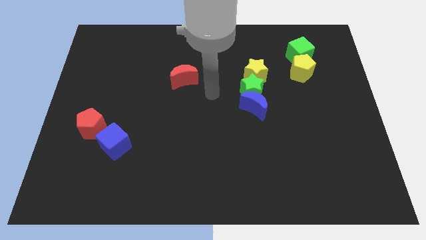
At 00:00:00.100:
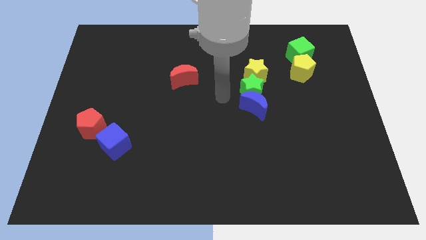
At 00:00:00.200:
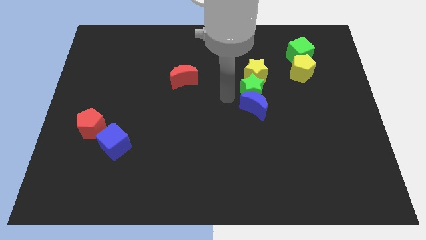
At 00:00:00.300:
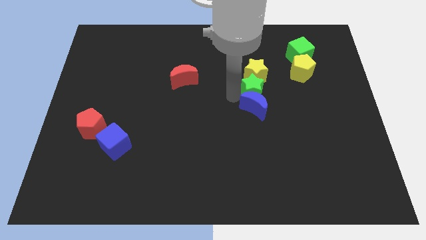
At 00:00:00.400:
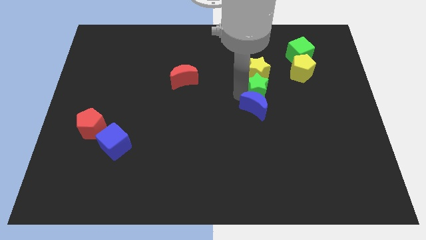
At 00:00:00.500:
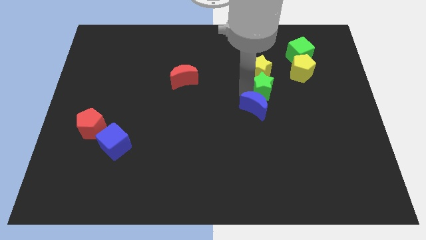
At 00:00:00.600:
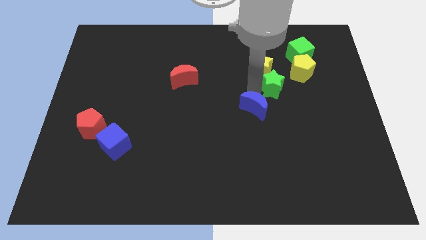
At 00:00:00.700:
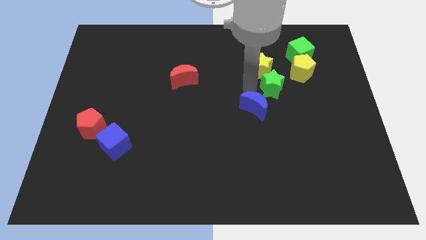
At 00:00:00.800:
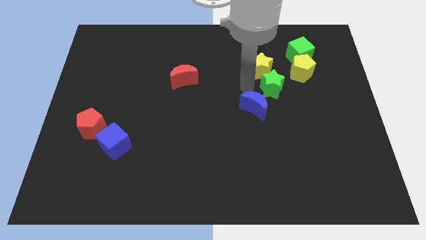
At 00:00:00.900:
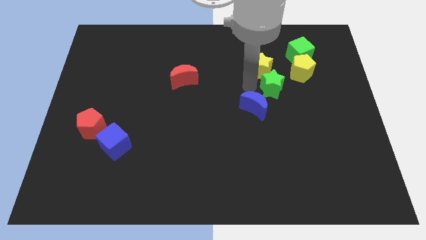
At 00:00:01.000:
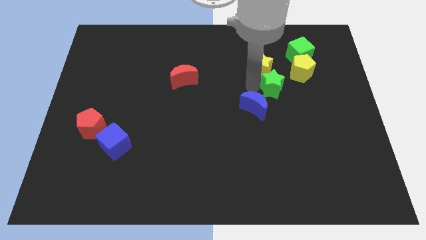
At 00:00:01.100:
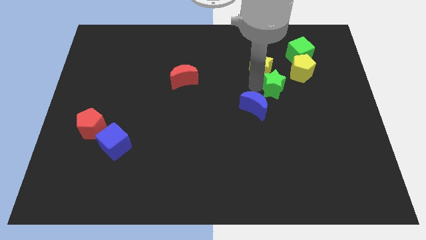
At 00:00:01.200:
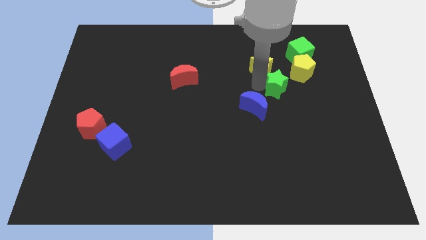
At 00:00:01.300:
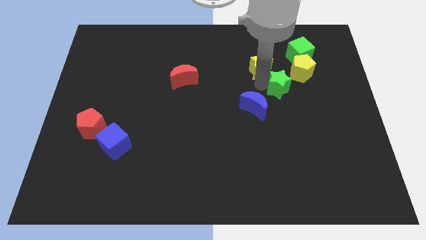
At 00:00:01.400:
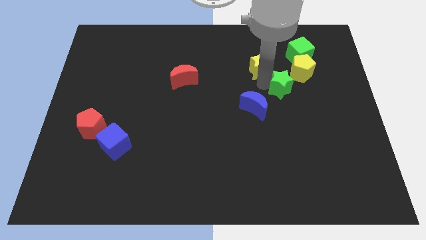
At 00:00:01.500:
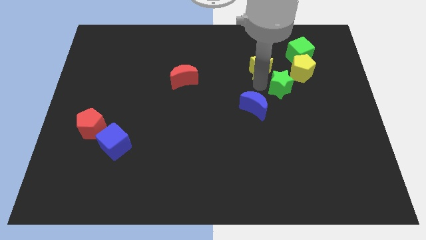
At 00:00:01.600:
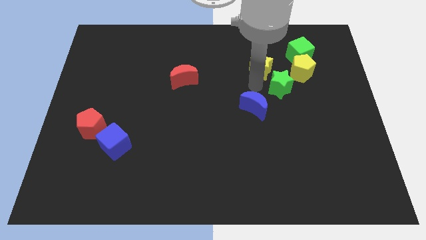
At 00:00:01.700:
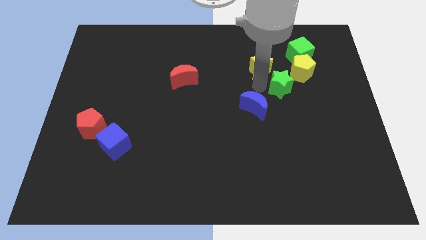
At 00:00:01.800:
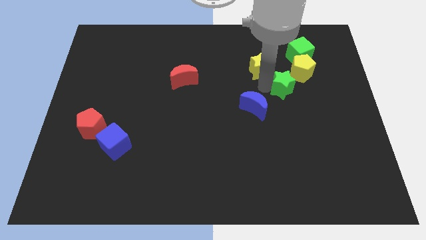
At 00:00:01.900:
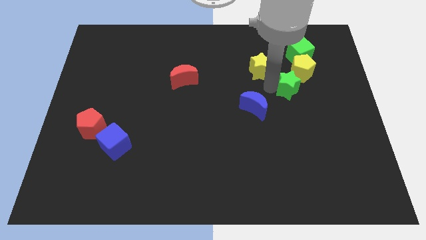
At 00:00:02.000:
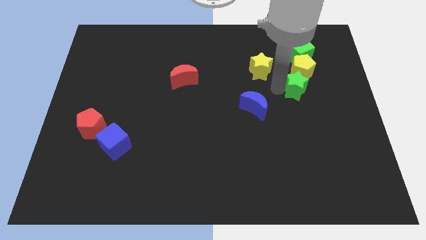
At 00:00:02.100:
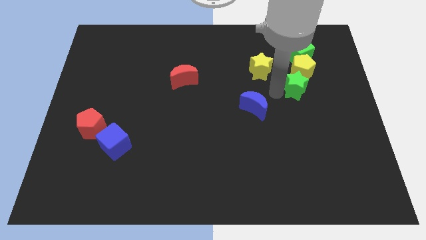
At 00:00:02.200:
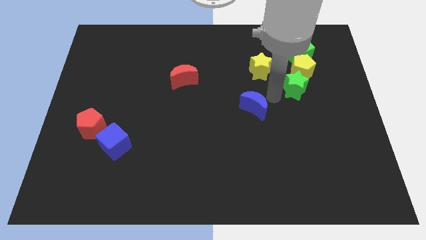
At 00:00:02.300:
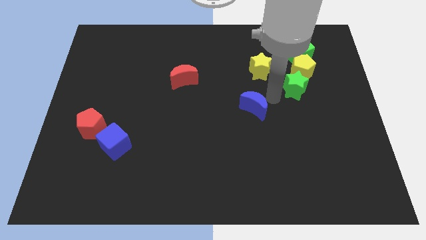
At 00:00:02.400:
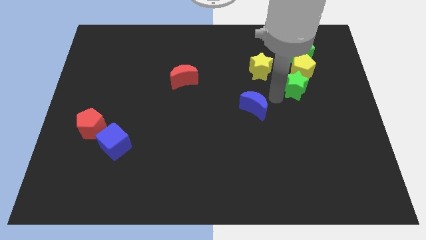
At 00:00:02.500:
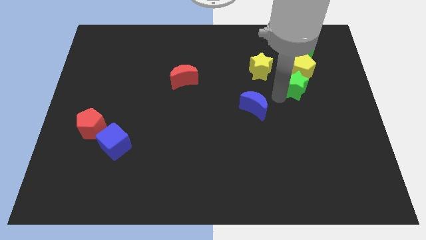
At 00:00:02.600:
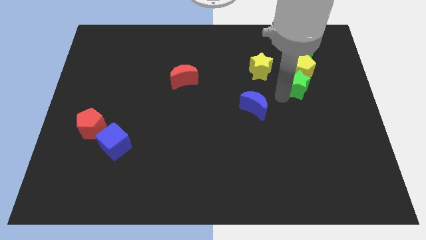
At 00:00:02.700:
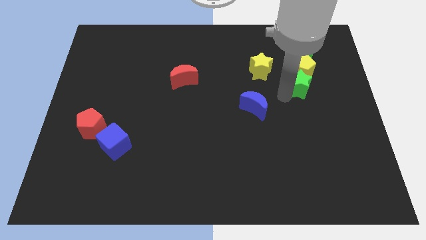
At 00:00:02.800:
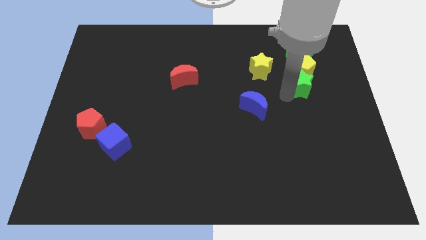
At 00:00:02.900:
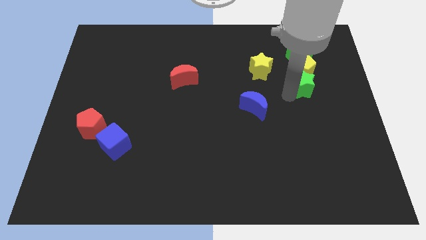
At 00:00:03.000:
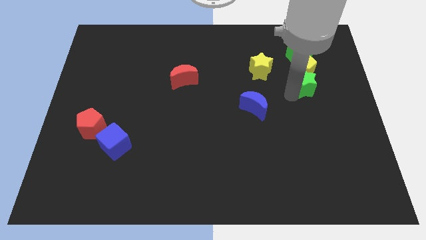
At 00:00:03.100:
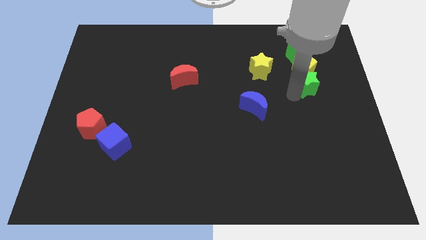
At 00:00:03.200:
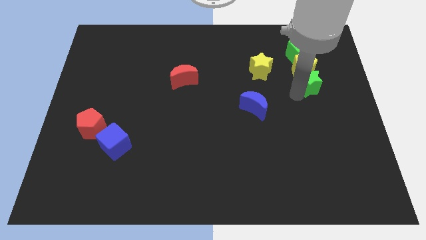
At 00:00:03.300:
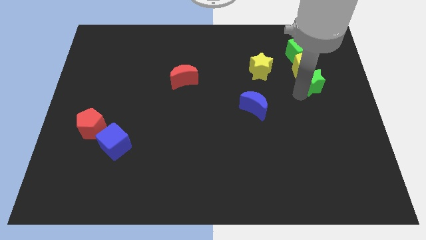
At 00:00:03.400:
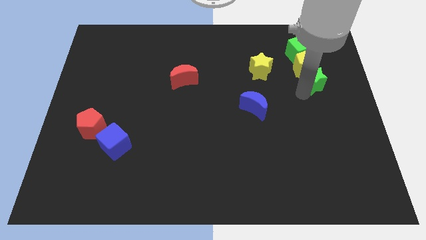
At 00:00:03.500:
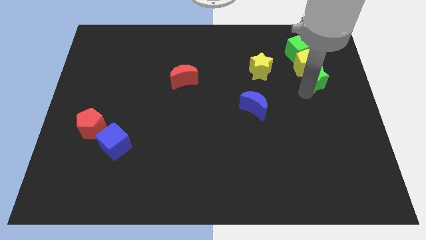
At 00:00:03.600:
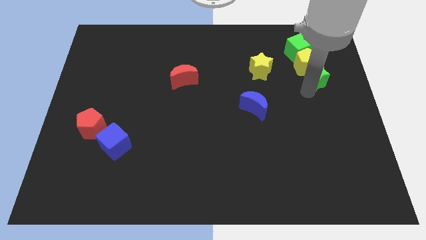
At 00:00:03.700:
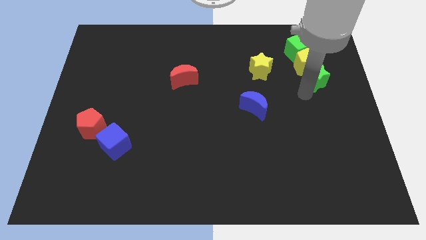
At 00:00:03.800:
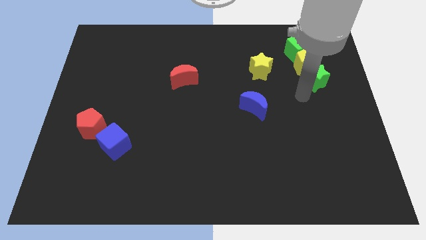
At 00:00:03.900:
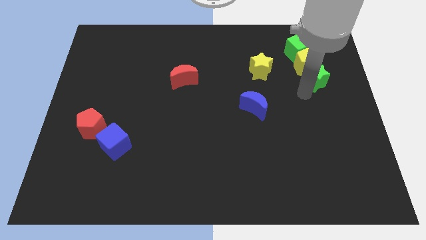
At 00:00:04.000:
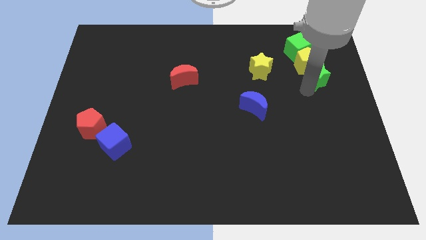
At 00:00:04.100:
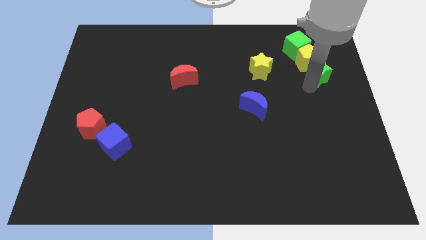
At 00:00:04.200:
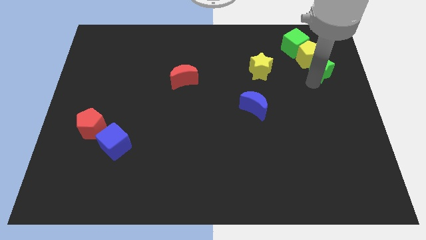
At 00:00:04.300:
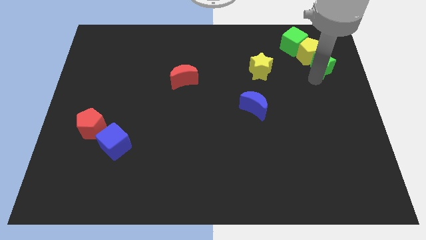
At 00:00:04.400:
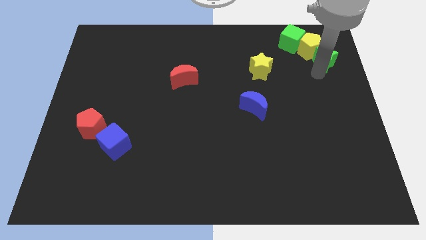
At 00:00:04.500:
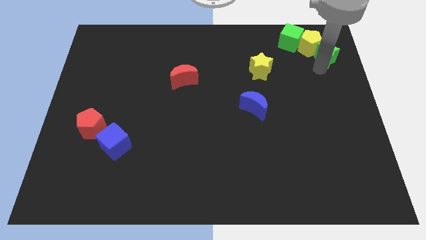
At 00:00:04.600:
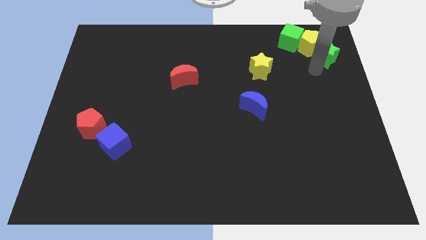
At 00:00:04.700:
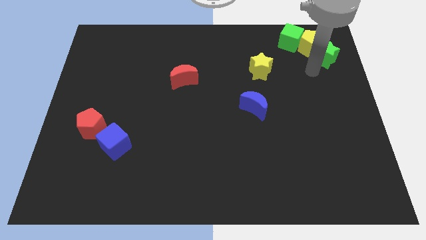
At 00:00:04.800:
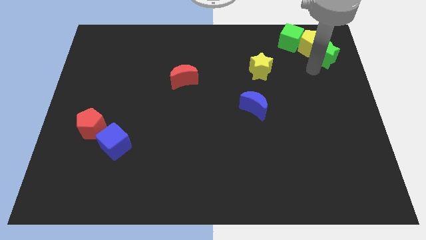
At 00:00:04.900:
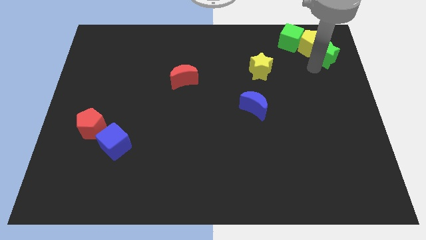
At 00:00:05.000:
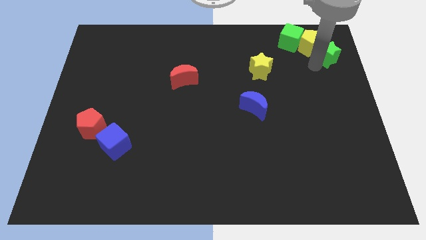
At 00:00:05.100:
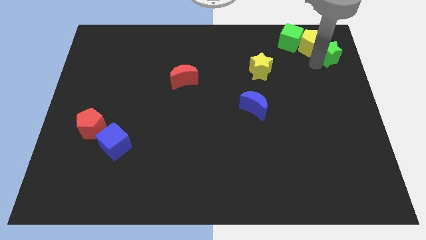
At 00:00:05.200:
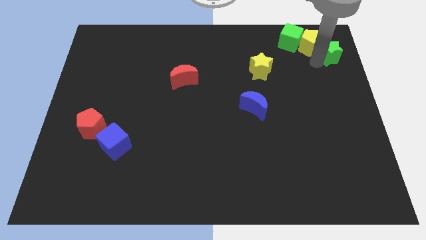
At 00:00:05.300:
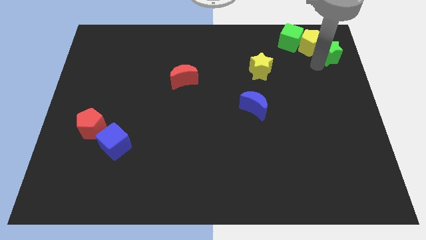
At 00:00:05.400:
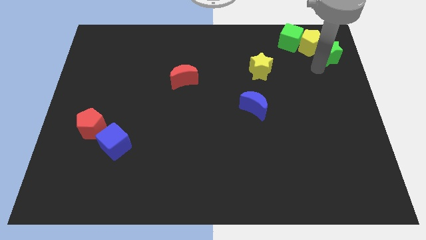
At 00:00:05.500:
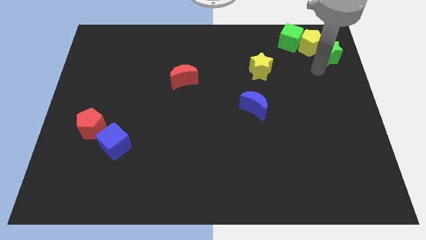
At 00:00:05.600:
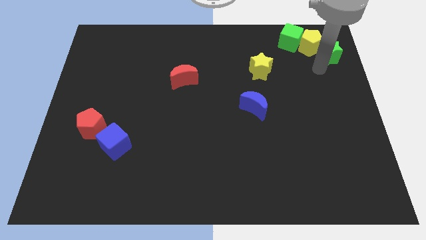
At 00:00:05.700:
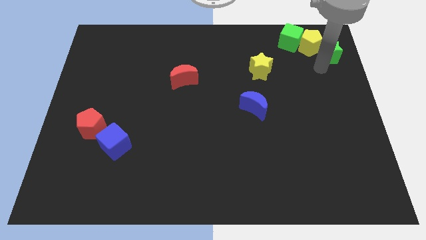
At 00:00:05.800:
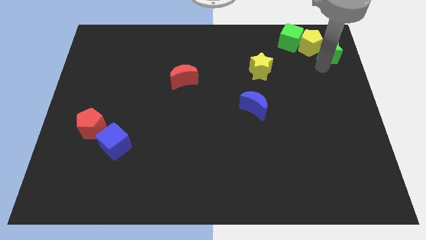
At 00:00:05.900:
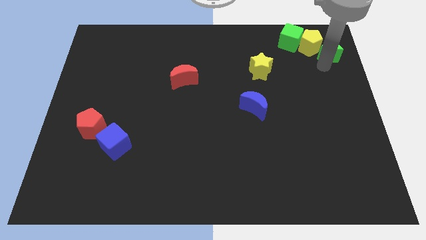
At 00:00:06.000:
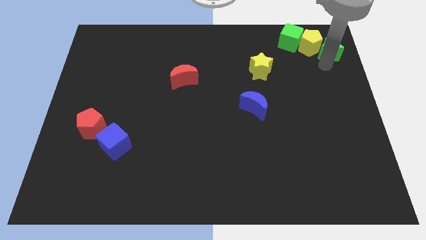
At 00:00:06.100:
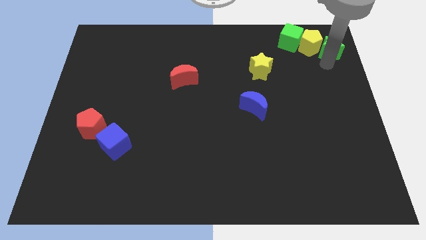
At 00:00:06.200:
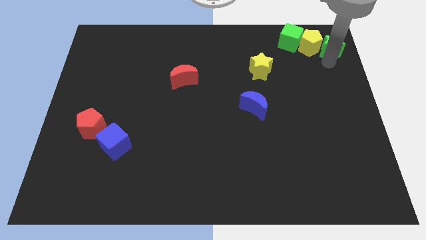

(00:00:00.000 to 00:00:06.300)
slide the green star to the upper right corner

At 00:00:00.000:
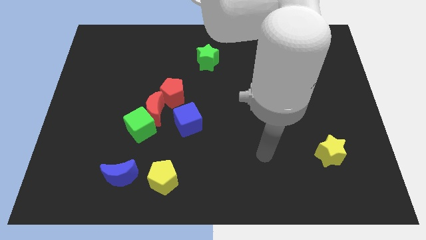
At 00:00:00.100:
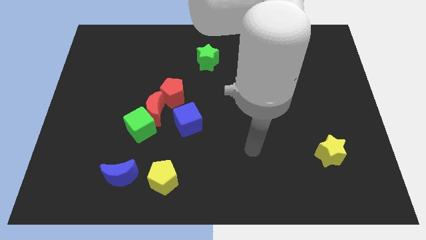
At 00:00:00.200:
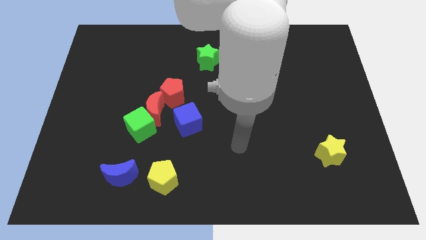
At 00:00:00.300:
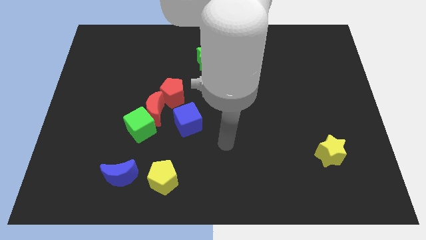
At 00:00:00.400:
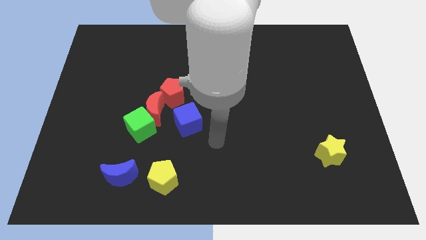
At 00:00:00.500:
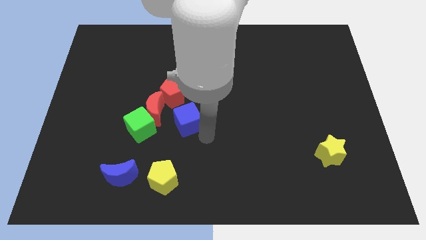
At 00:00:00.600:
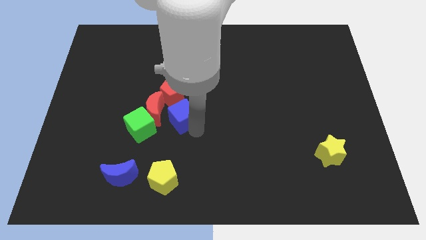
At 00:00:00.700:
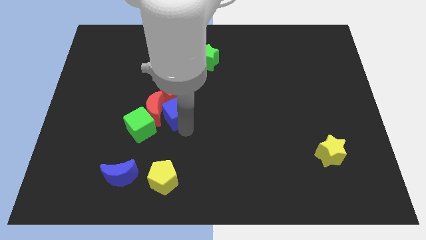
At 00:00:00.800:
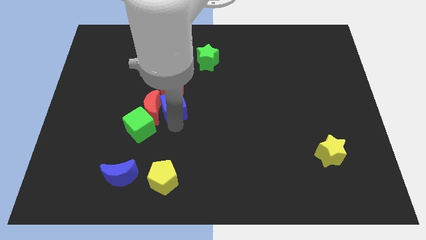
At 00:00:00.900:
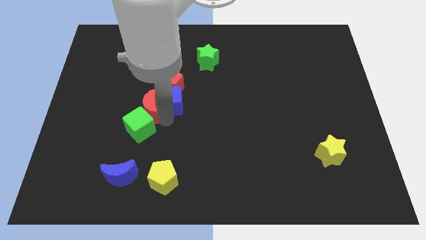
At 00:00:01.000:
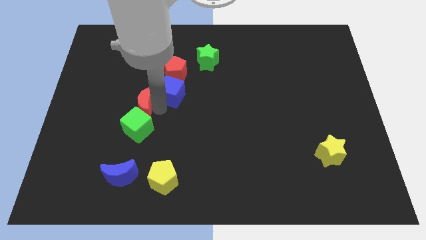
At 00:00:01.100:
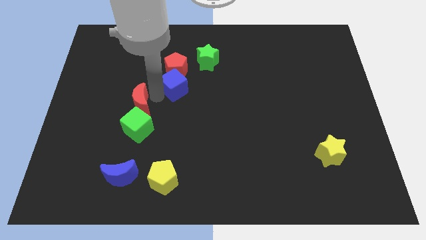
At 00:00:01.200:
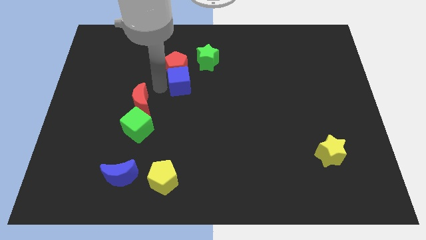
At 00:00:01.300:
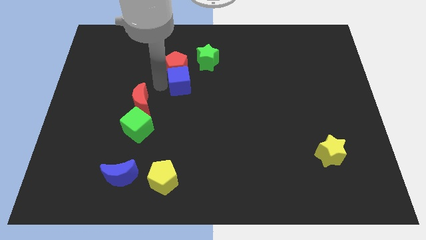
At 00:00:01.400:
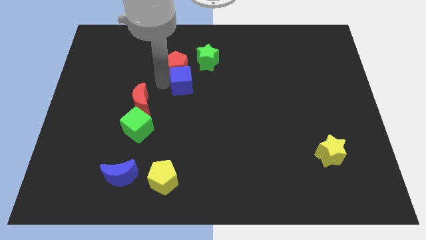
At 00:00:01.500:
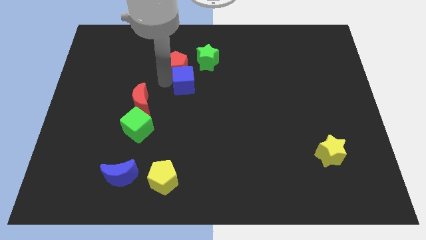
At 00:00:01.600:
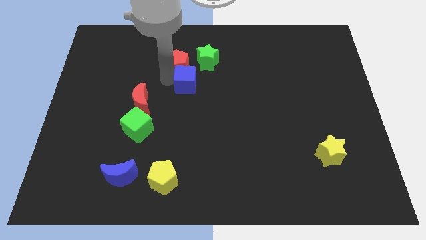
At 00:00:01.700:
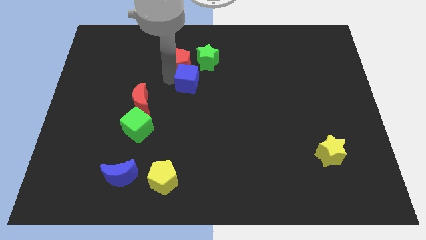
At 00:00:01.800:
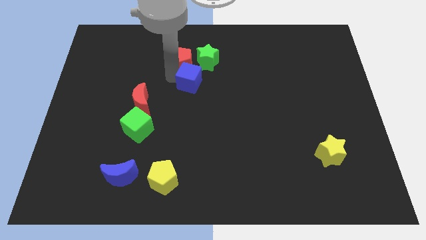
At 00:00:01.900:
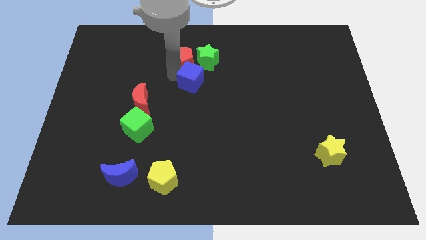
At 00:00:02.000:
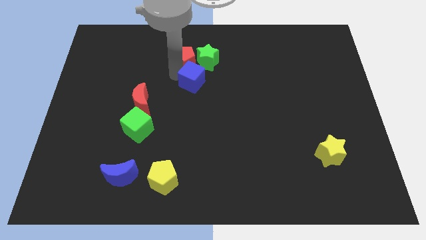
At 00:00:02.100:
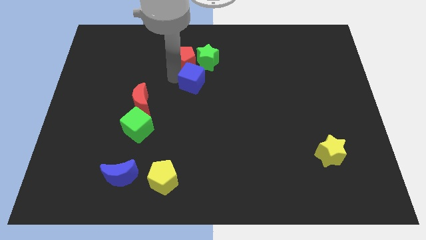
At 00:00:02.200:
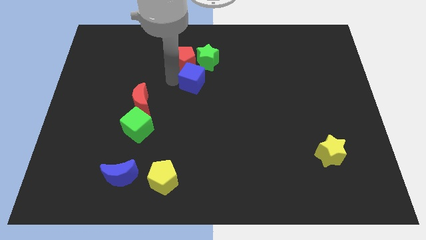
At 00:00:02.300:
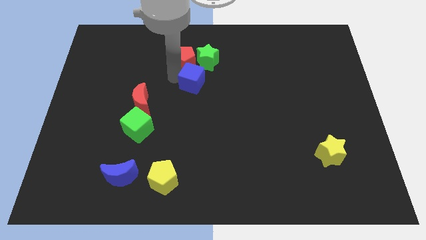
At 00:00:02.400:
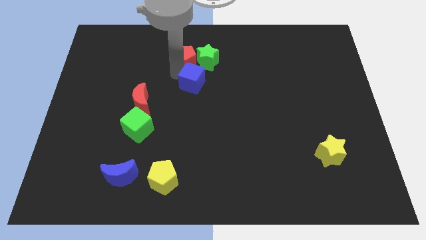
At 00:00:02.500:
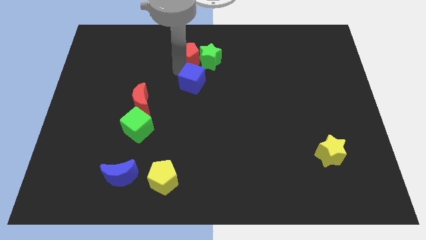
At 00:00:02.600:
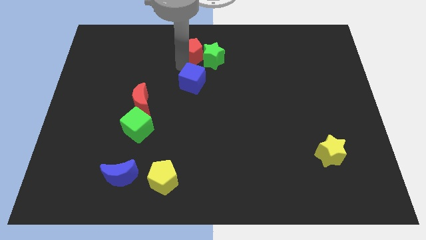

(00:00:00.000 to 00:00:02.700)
push the red pentagon to the top
